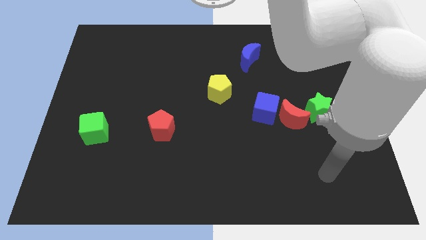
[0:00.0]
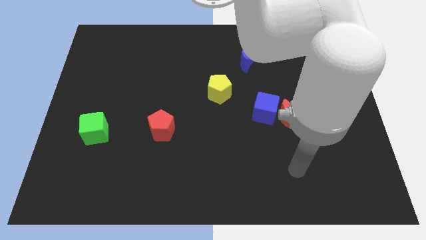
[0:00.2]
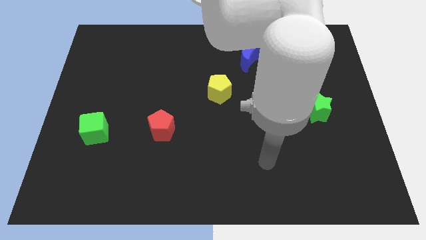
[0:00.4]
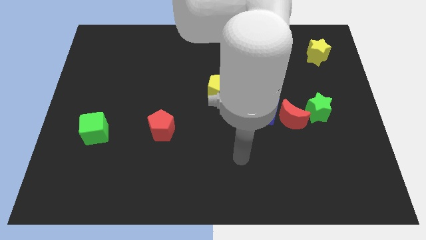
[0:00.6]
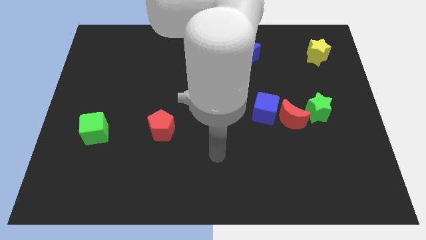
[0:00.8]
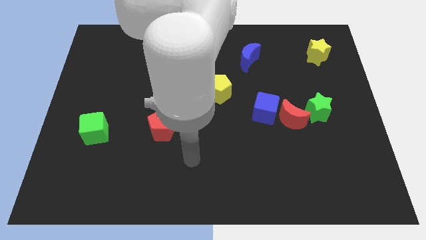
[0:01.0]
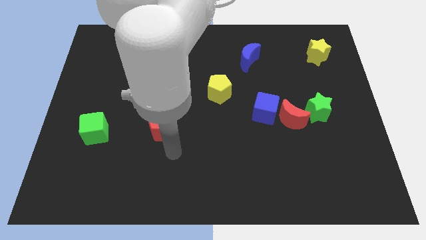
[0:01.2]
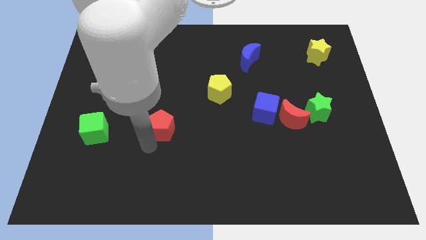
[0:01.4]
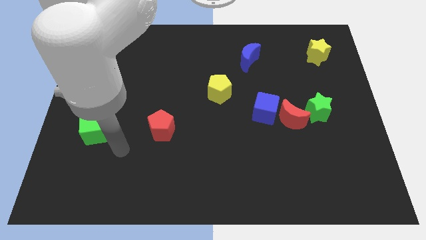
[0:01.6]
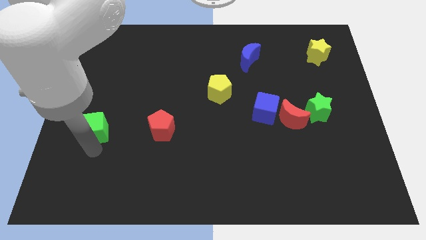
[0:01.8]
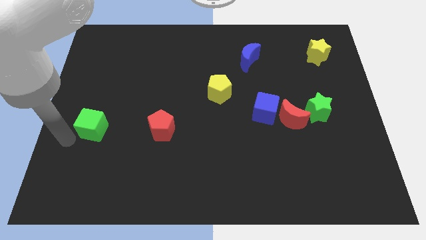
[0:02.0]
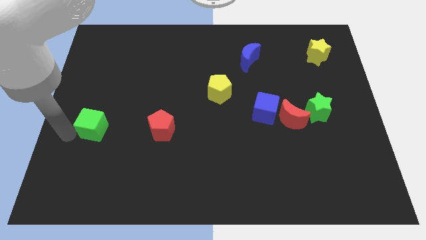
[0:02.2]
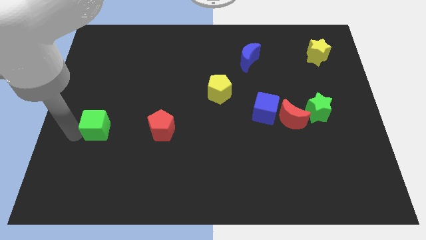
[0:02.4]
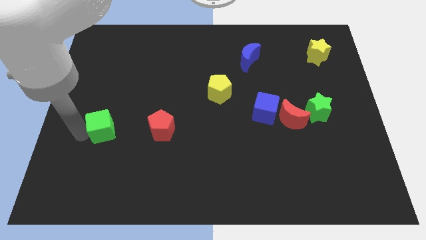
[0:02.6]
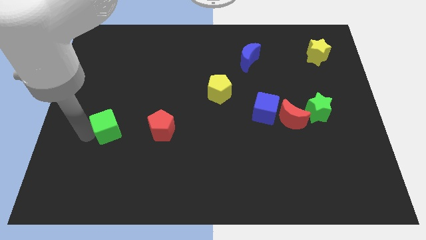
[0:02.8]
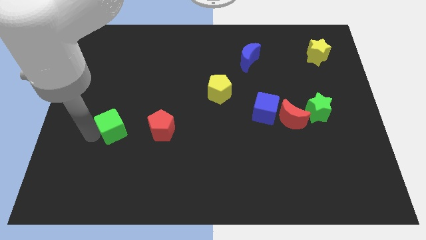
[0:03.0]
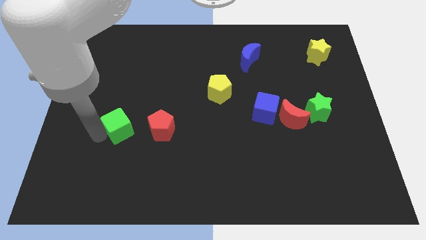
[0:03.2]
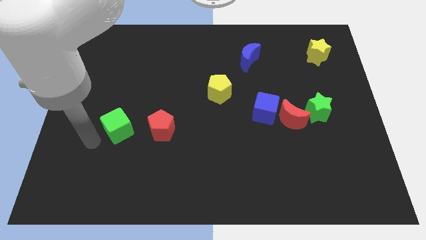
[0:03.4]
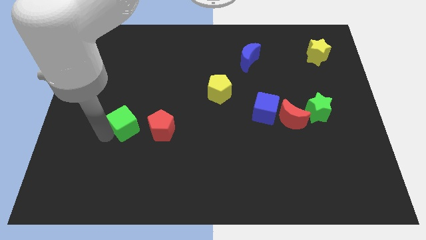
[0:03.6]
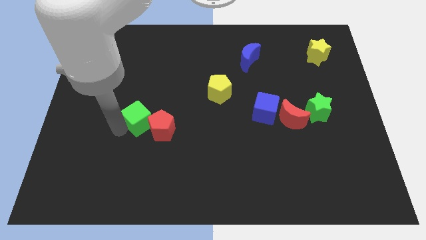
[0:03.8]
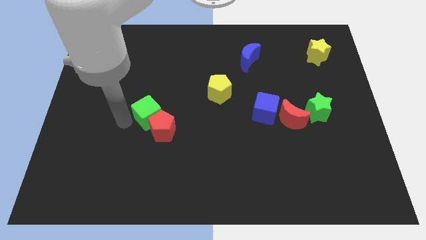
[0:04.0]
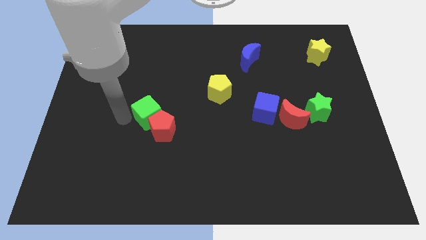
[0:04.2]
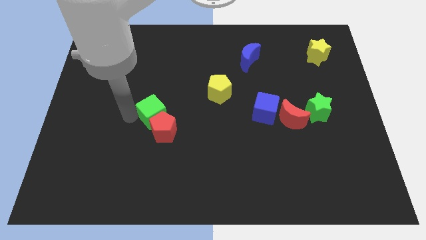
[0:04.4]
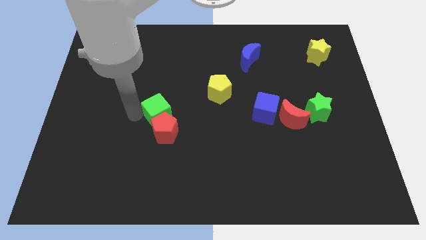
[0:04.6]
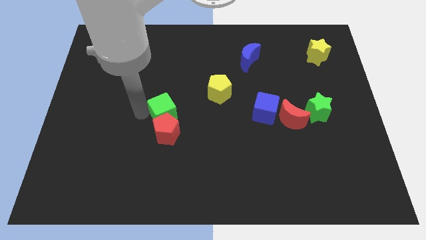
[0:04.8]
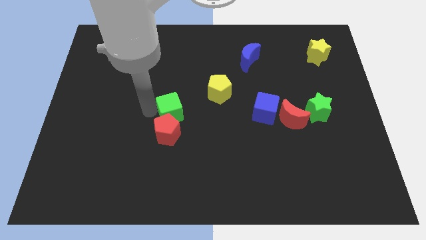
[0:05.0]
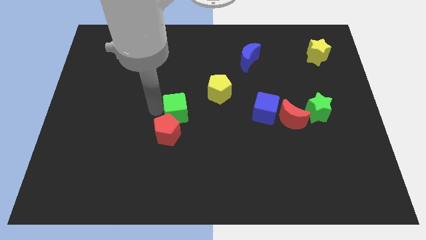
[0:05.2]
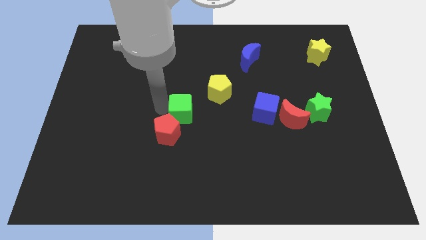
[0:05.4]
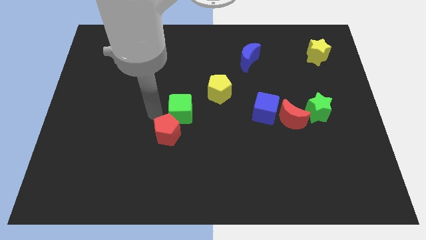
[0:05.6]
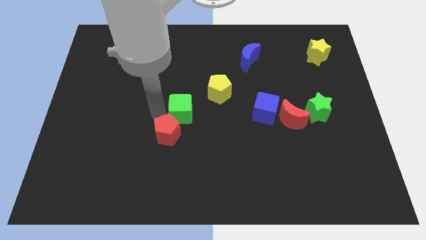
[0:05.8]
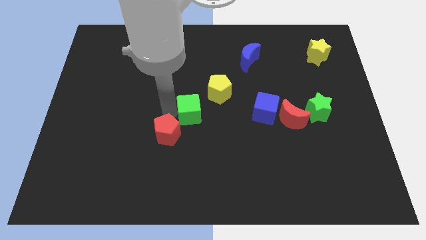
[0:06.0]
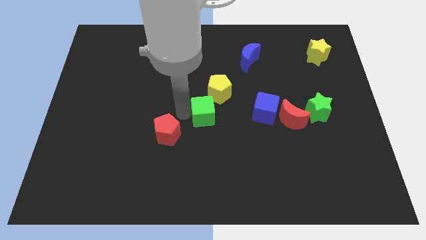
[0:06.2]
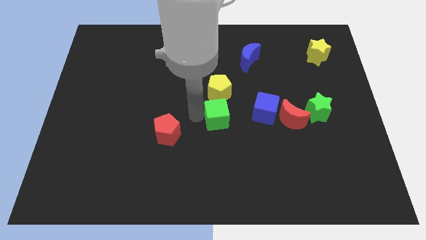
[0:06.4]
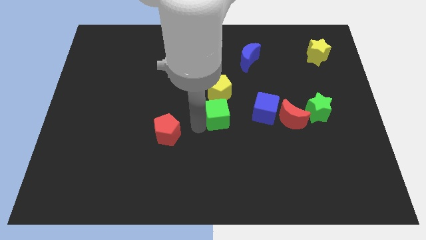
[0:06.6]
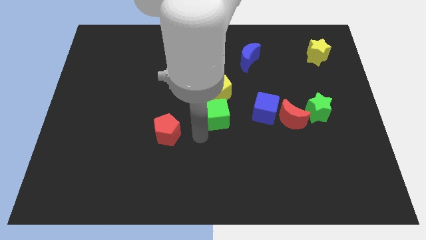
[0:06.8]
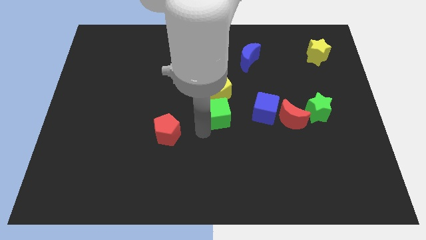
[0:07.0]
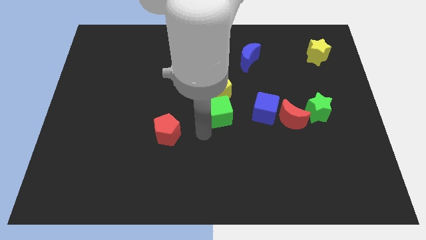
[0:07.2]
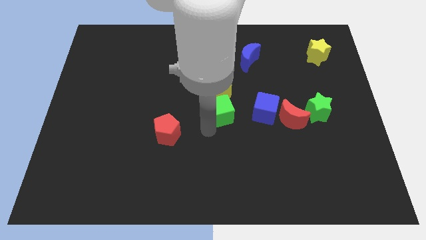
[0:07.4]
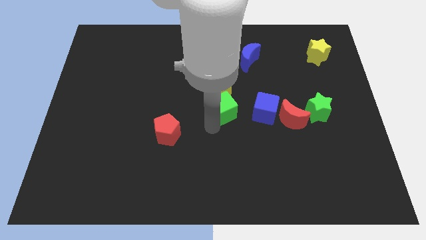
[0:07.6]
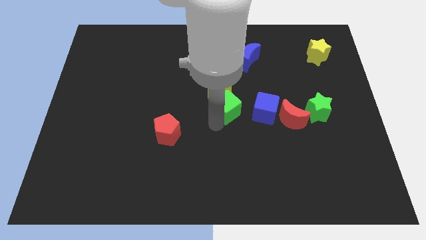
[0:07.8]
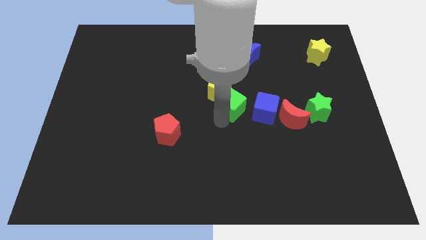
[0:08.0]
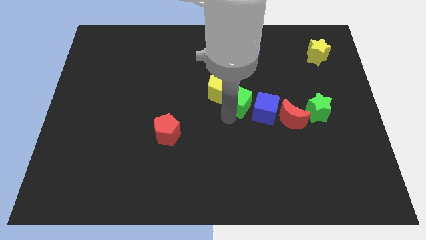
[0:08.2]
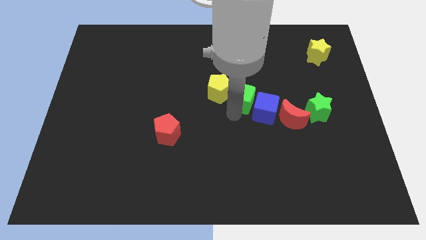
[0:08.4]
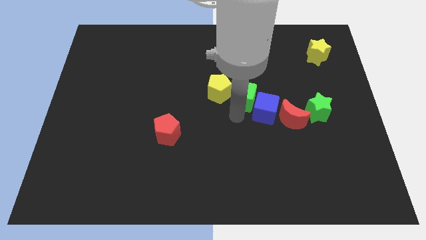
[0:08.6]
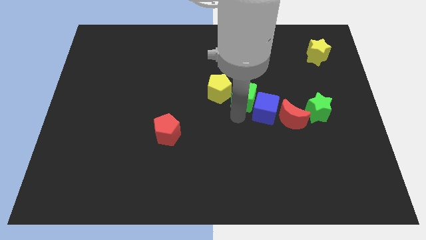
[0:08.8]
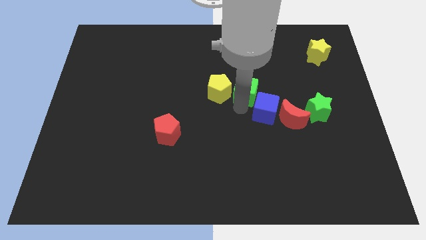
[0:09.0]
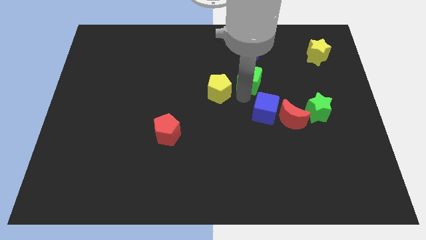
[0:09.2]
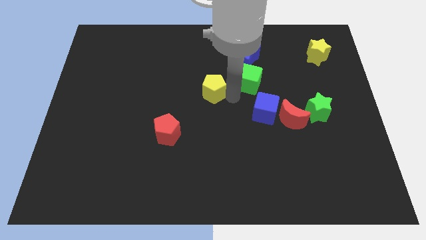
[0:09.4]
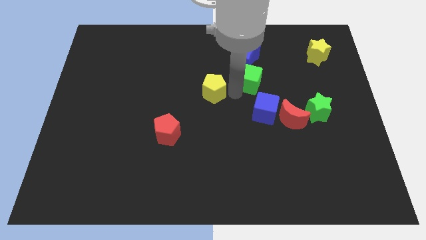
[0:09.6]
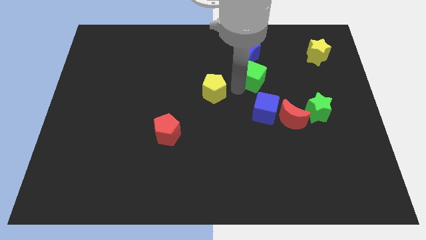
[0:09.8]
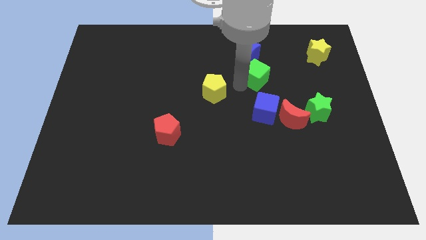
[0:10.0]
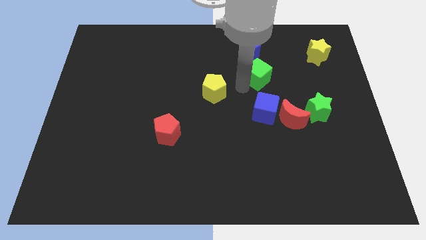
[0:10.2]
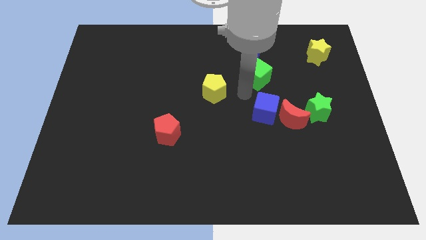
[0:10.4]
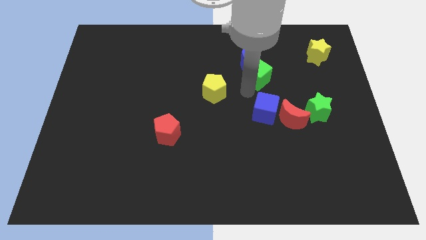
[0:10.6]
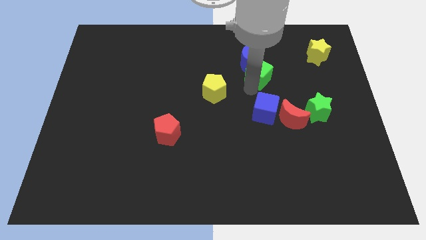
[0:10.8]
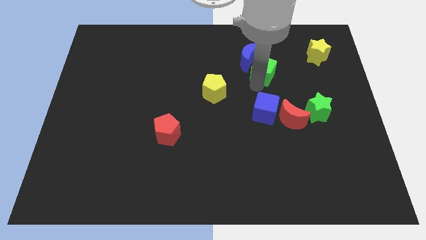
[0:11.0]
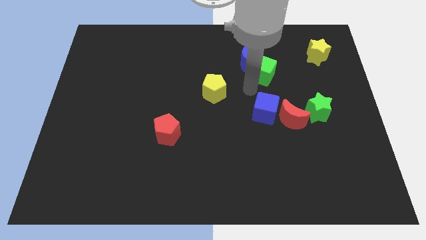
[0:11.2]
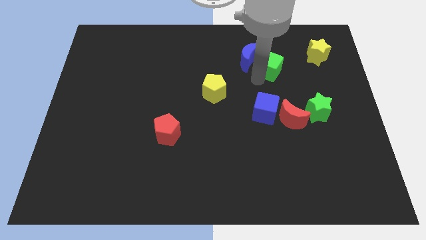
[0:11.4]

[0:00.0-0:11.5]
slide the green cube just left of the yellow star

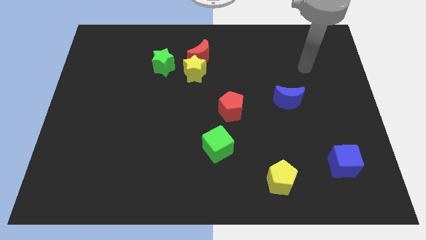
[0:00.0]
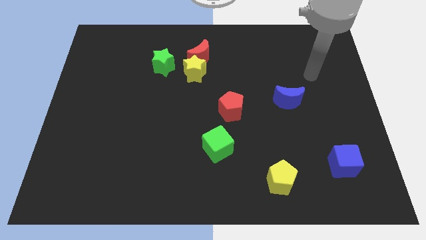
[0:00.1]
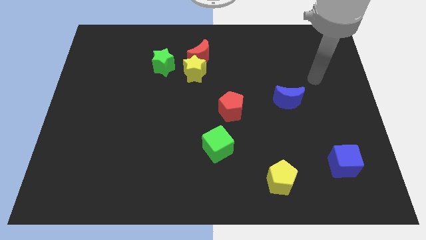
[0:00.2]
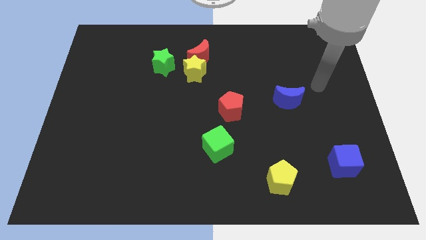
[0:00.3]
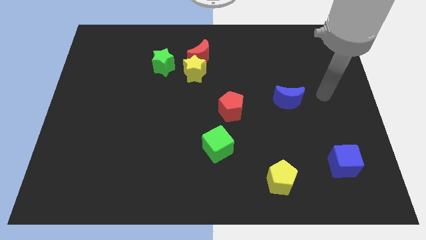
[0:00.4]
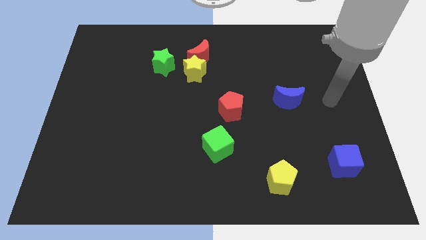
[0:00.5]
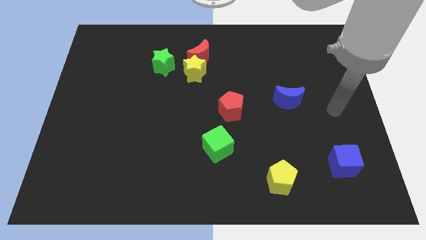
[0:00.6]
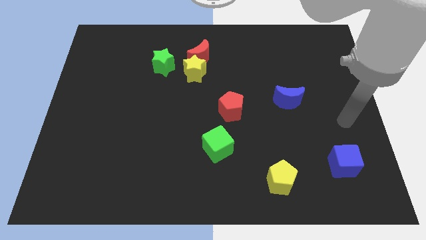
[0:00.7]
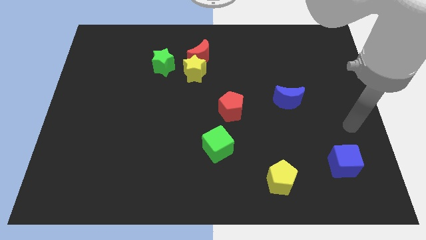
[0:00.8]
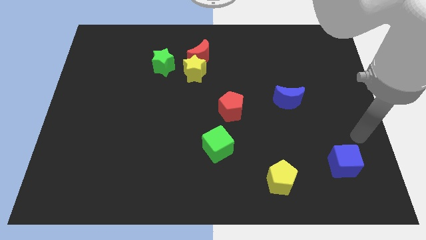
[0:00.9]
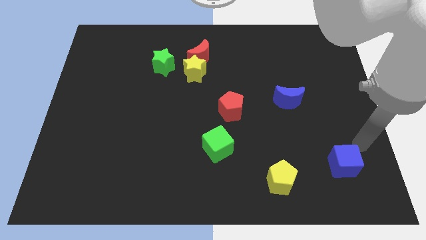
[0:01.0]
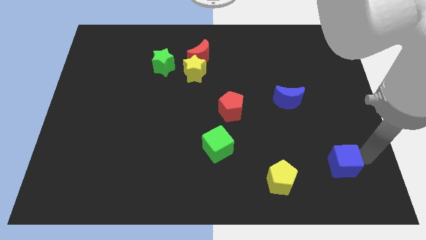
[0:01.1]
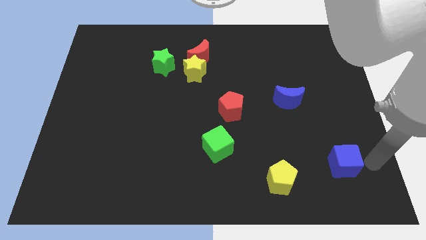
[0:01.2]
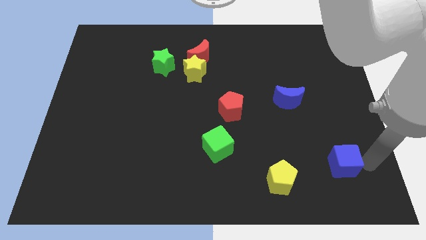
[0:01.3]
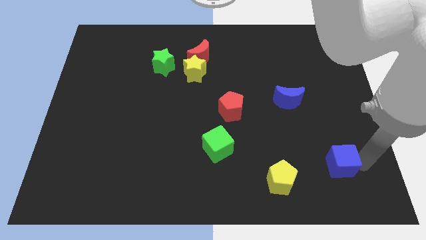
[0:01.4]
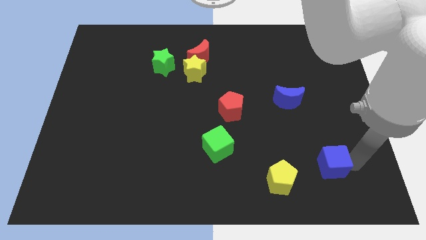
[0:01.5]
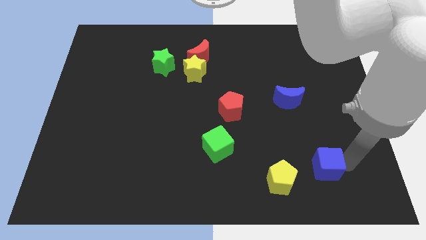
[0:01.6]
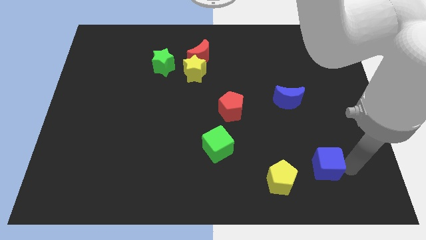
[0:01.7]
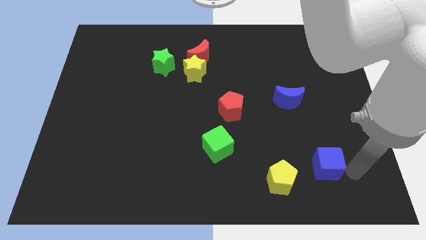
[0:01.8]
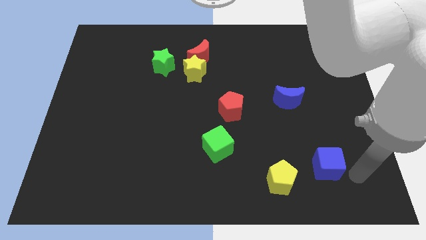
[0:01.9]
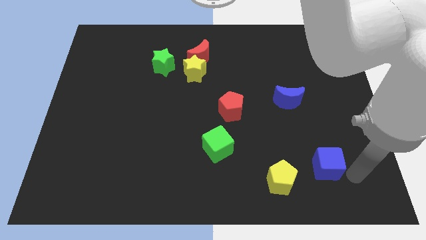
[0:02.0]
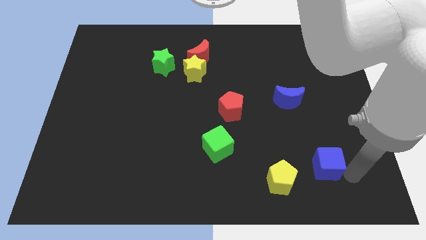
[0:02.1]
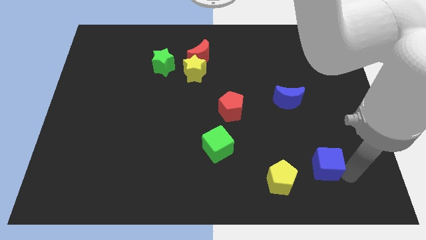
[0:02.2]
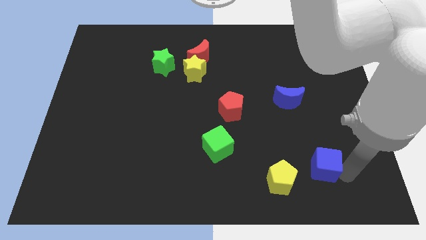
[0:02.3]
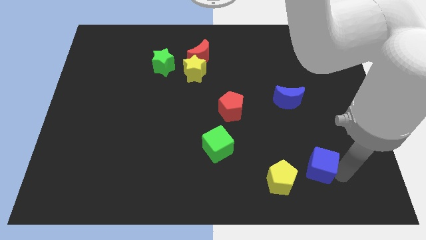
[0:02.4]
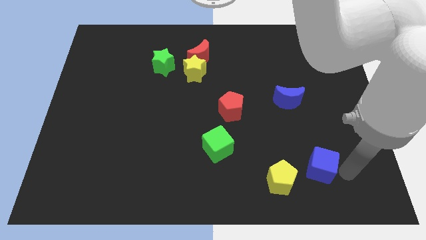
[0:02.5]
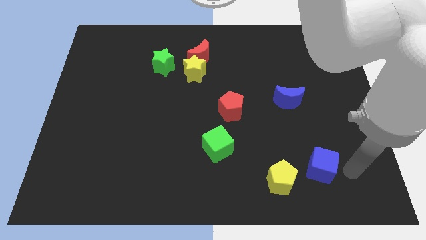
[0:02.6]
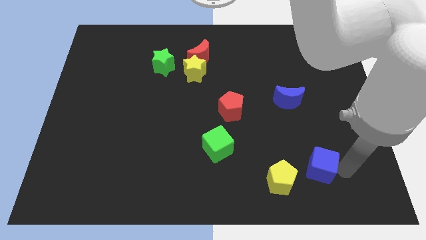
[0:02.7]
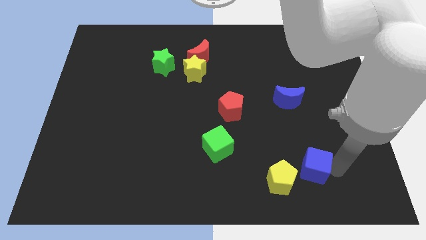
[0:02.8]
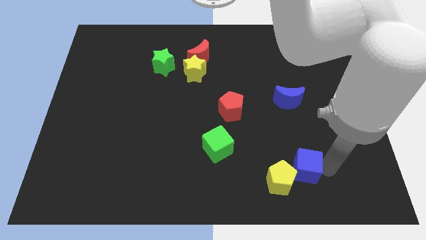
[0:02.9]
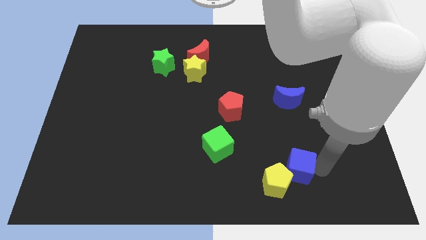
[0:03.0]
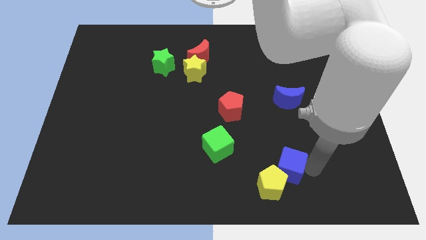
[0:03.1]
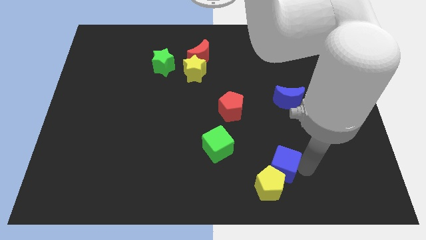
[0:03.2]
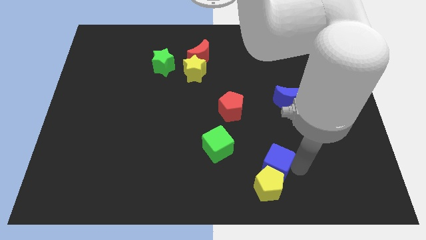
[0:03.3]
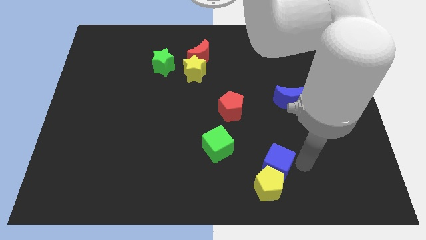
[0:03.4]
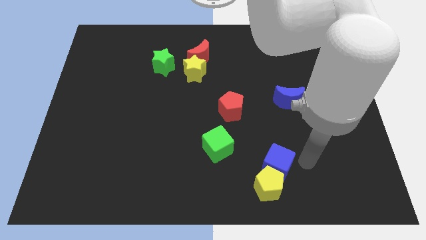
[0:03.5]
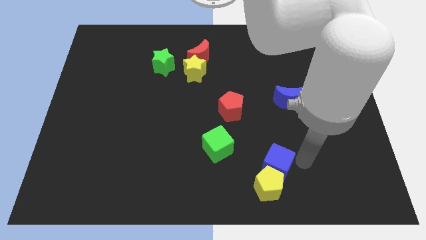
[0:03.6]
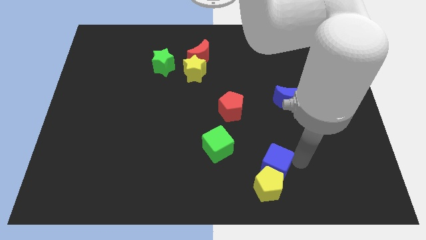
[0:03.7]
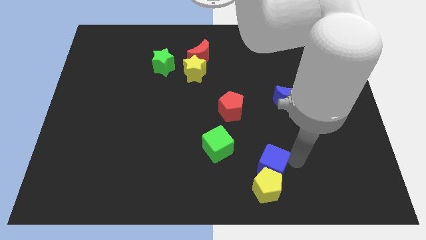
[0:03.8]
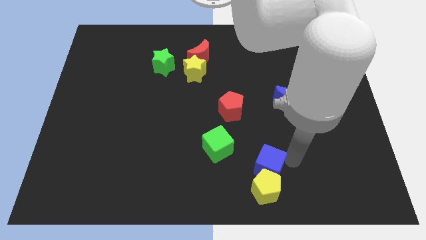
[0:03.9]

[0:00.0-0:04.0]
put the blue cube to the bottom right side of the green cube
